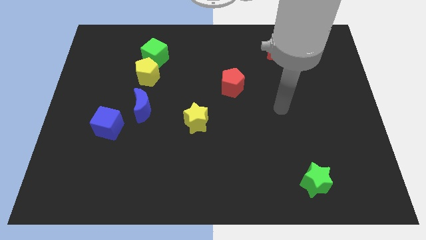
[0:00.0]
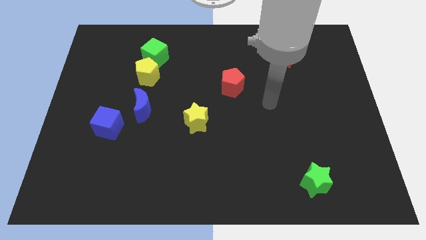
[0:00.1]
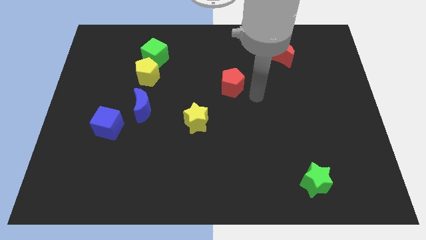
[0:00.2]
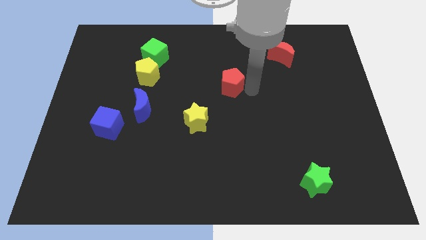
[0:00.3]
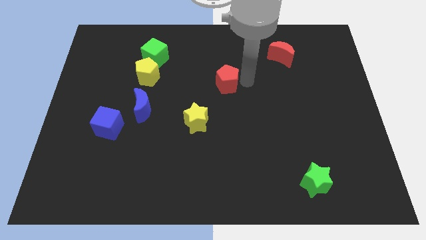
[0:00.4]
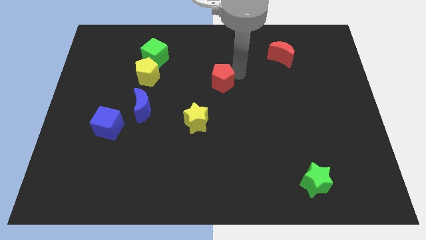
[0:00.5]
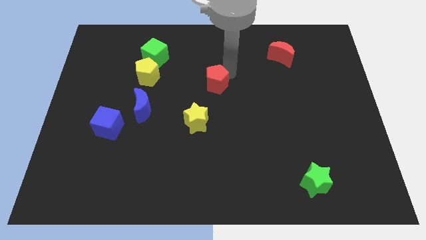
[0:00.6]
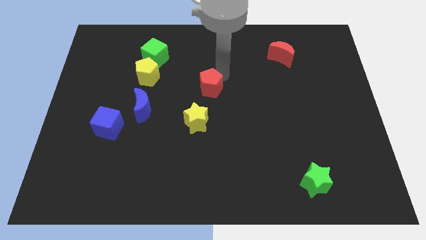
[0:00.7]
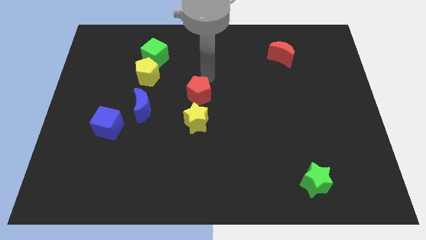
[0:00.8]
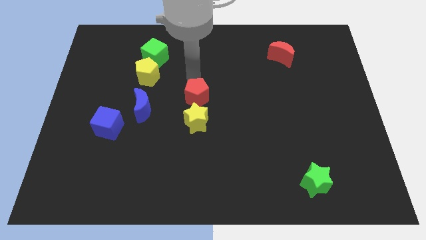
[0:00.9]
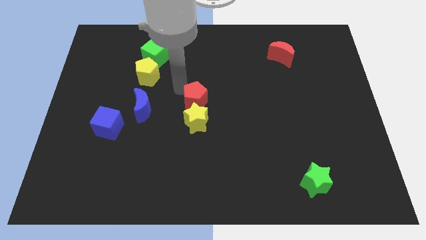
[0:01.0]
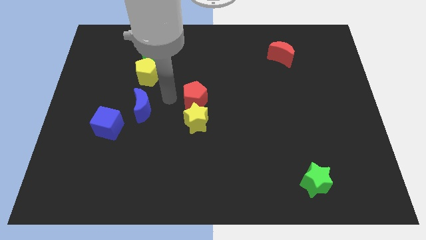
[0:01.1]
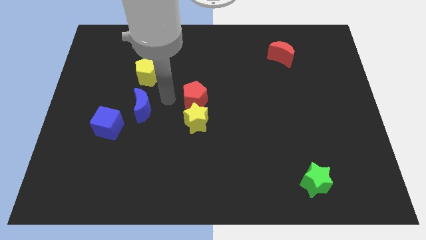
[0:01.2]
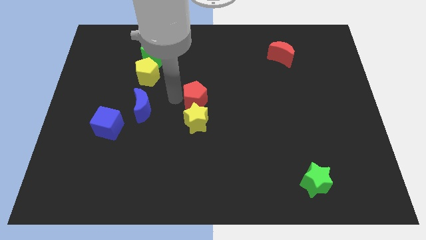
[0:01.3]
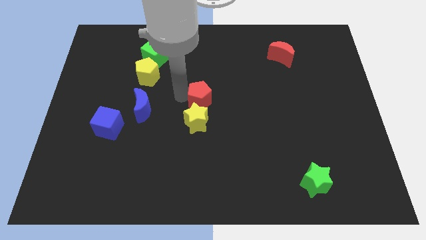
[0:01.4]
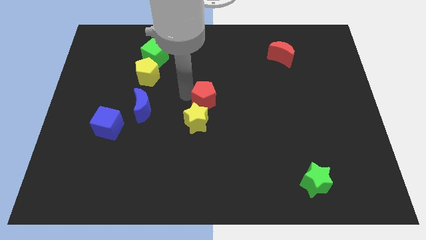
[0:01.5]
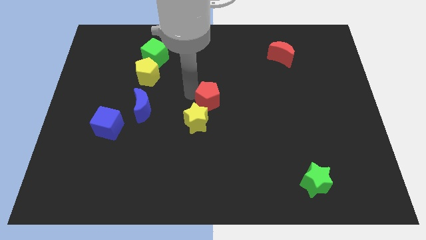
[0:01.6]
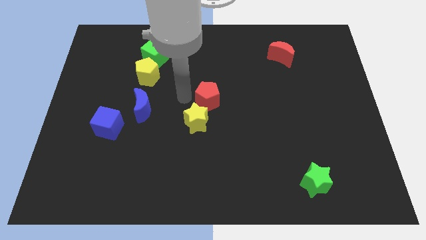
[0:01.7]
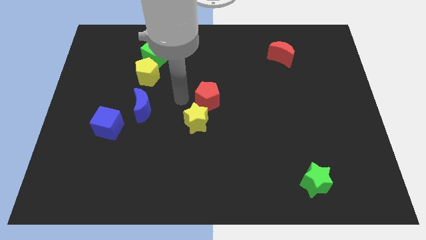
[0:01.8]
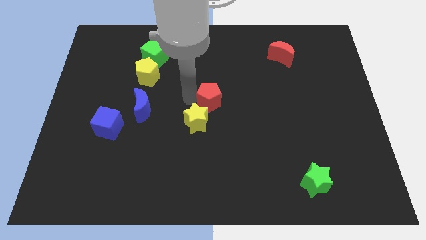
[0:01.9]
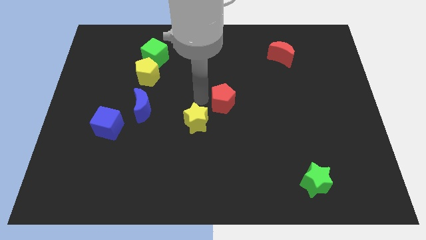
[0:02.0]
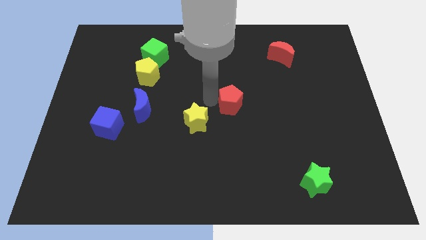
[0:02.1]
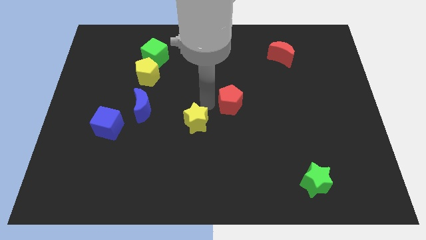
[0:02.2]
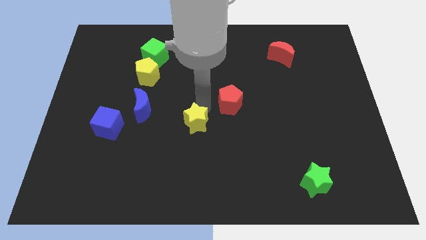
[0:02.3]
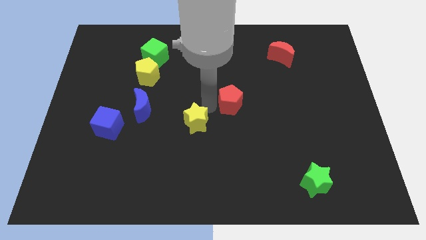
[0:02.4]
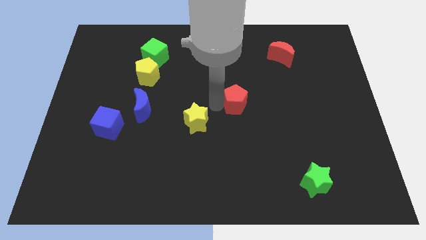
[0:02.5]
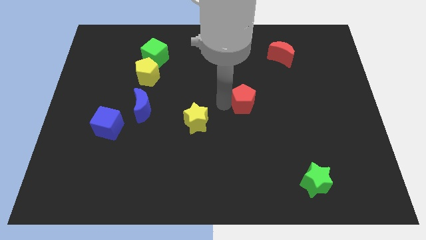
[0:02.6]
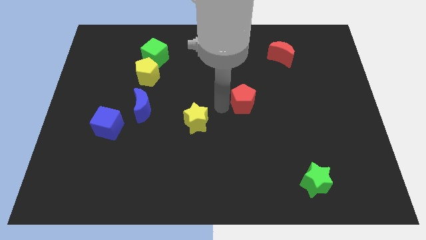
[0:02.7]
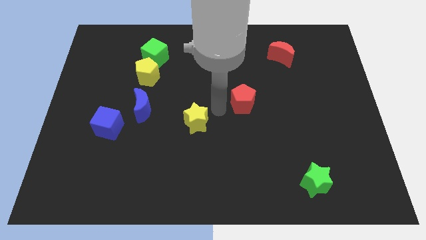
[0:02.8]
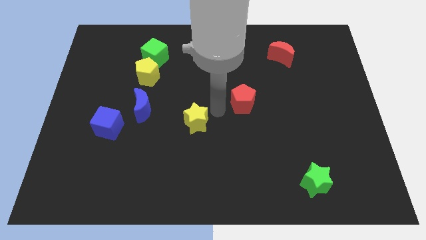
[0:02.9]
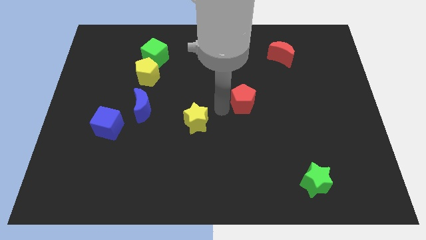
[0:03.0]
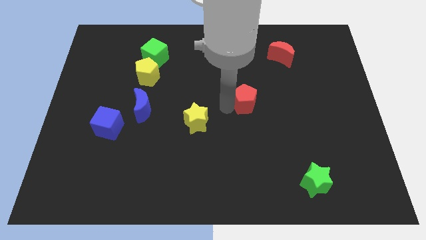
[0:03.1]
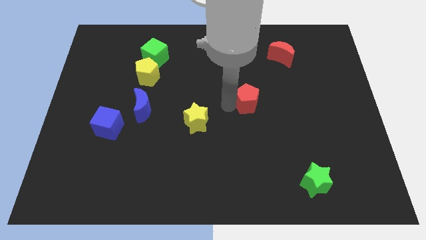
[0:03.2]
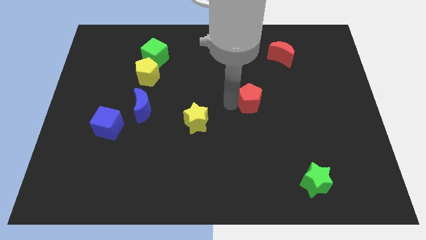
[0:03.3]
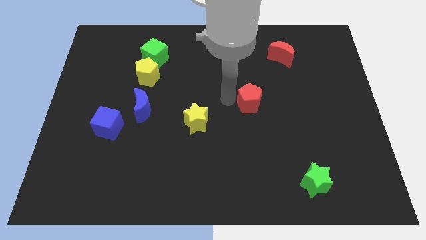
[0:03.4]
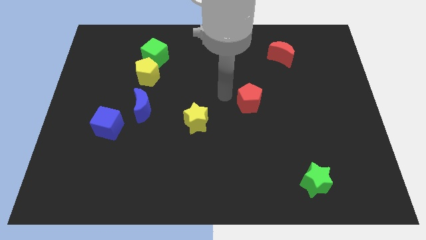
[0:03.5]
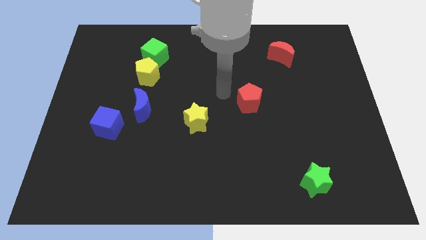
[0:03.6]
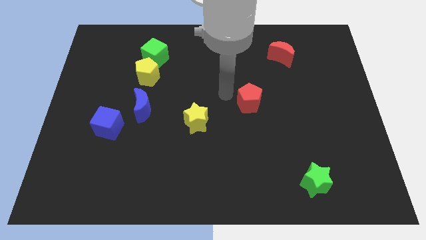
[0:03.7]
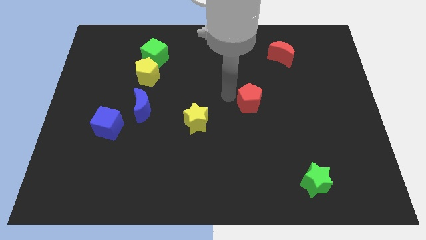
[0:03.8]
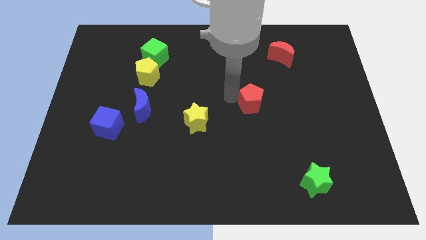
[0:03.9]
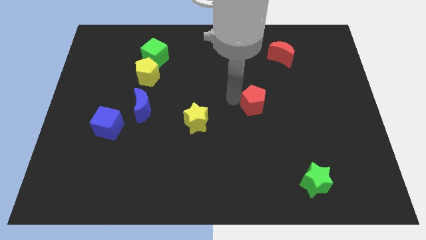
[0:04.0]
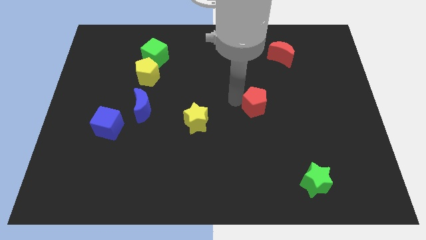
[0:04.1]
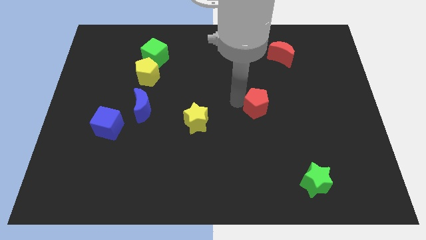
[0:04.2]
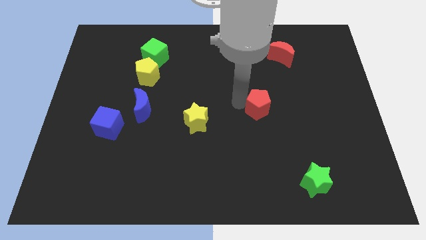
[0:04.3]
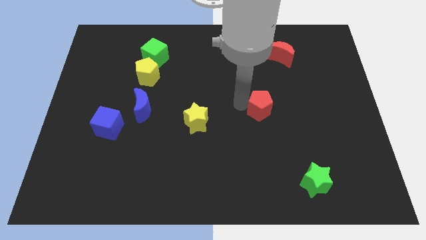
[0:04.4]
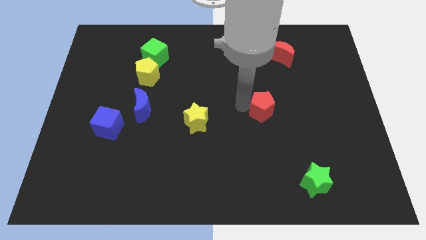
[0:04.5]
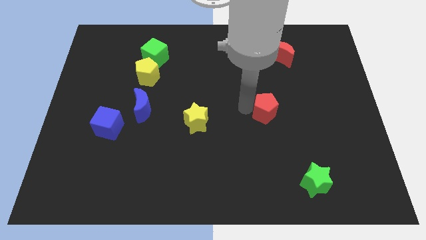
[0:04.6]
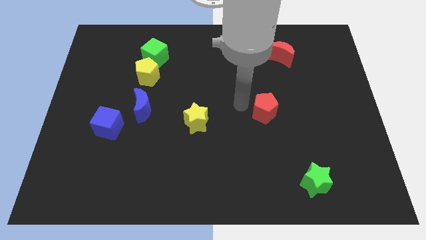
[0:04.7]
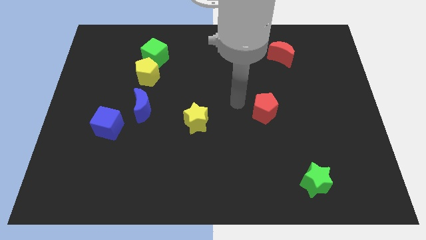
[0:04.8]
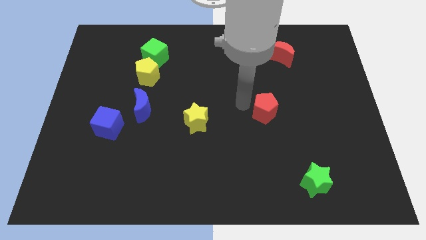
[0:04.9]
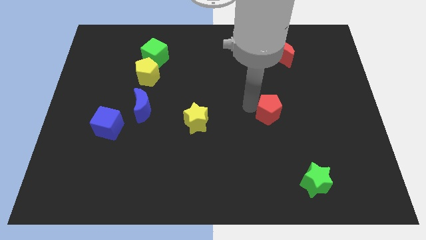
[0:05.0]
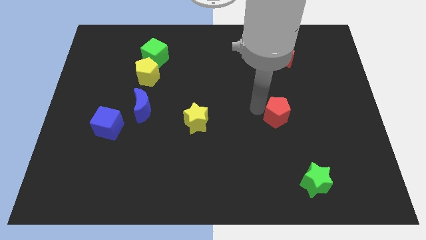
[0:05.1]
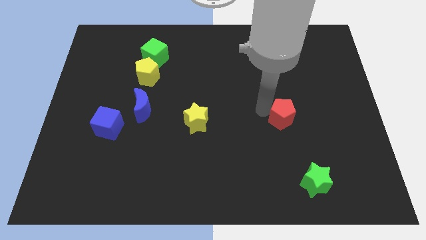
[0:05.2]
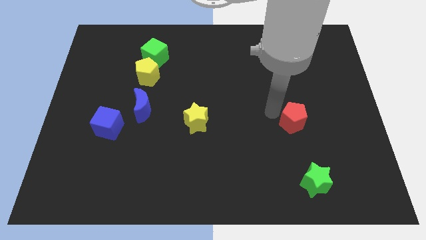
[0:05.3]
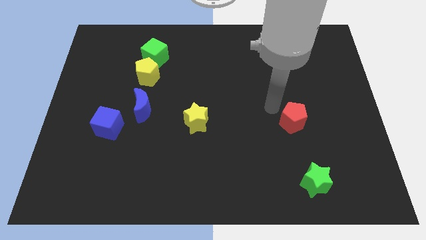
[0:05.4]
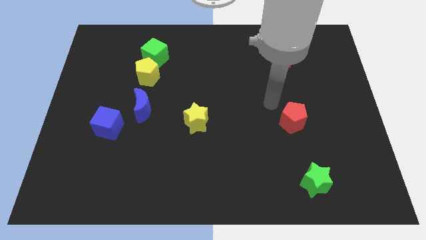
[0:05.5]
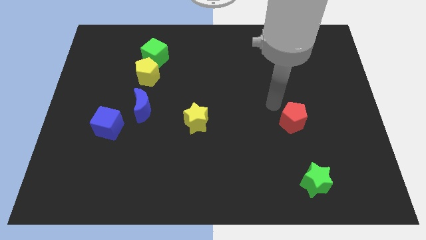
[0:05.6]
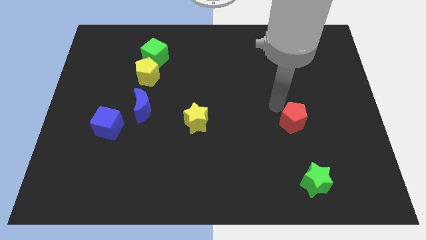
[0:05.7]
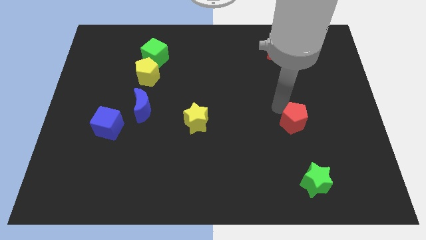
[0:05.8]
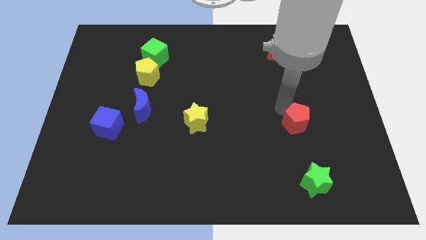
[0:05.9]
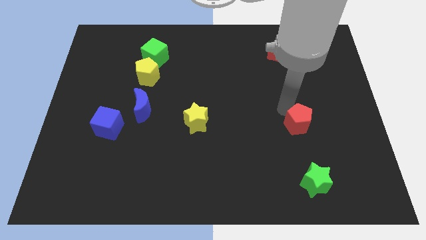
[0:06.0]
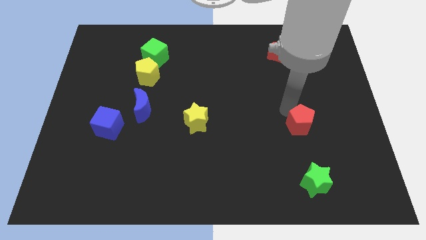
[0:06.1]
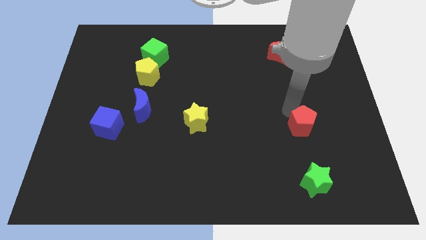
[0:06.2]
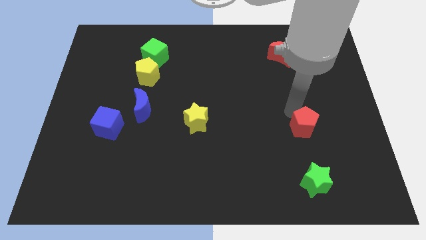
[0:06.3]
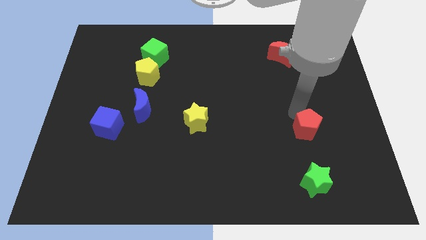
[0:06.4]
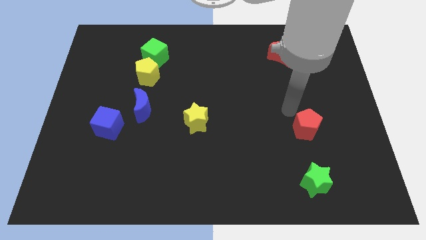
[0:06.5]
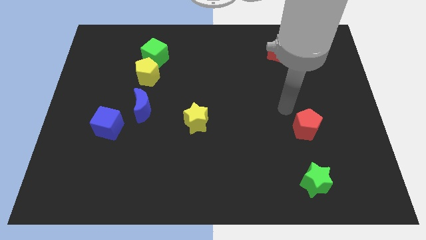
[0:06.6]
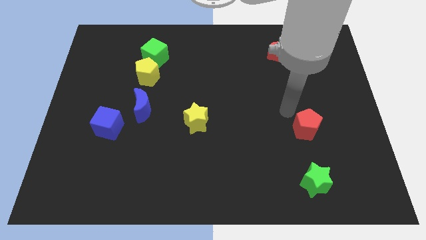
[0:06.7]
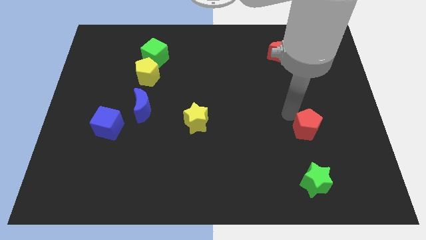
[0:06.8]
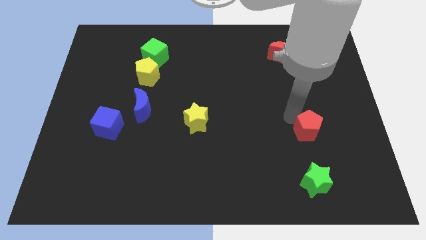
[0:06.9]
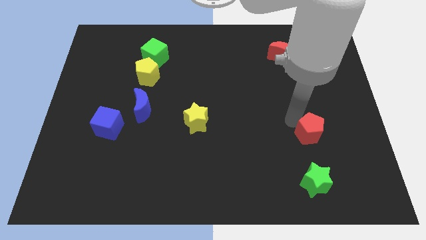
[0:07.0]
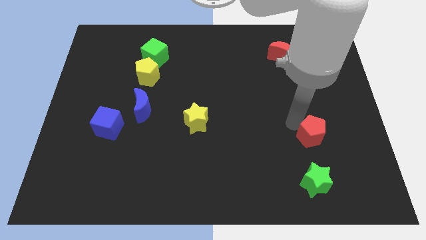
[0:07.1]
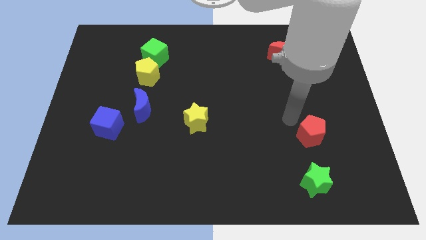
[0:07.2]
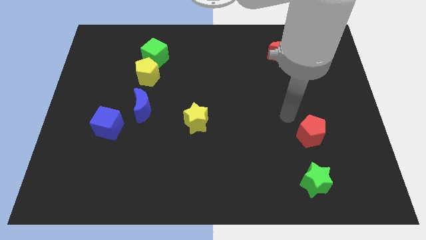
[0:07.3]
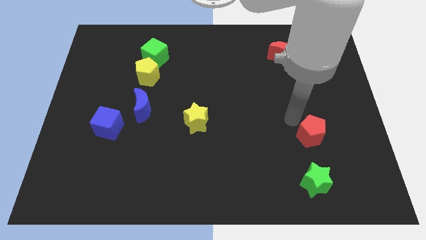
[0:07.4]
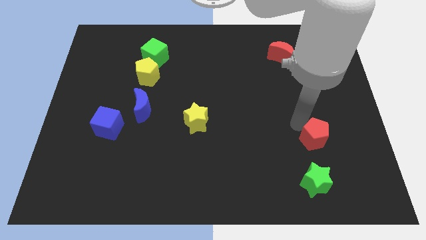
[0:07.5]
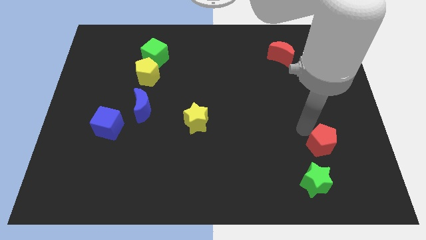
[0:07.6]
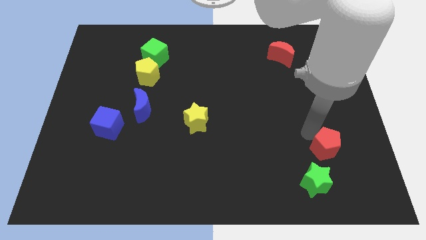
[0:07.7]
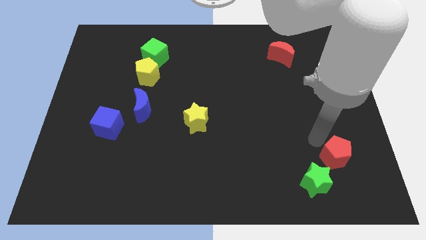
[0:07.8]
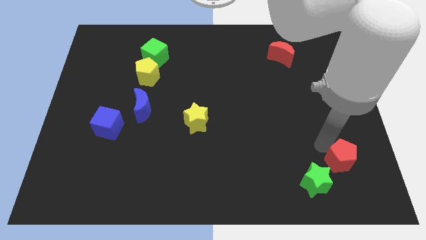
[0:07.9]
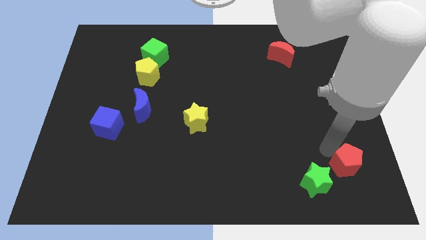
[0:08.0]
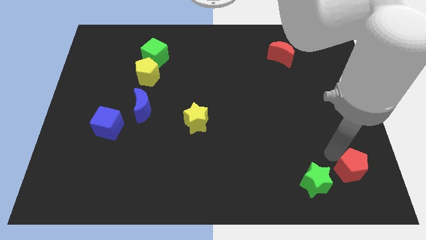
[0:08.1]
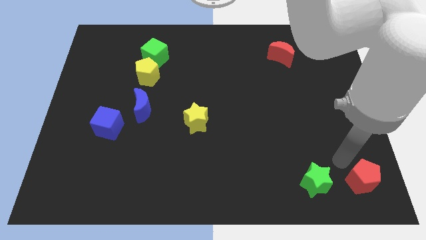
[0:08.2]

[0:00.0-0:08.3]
push the red pentagon to the bottom right
